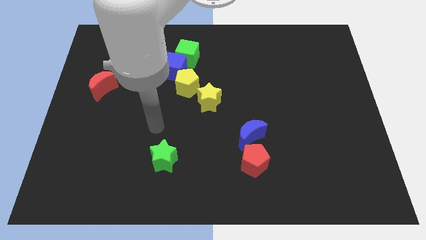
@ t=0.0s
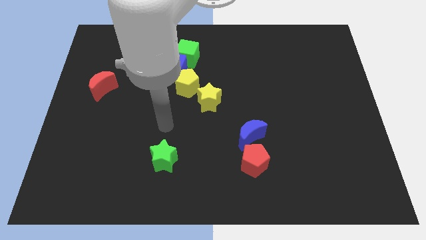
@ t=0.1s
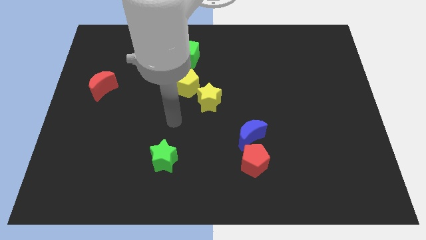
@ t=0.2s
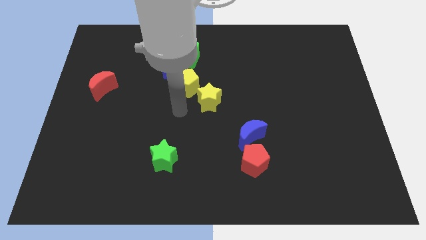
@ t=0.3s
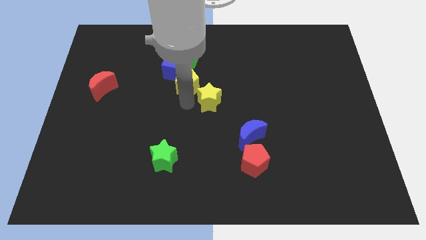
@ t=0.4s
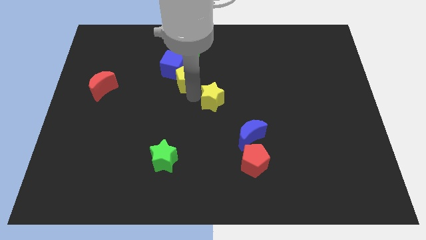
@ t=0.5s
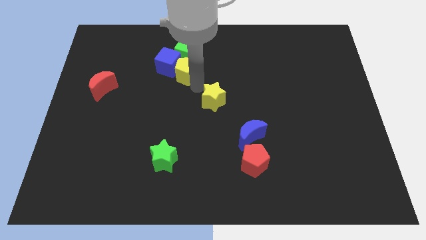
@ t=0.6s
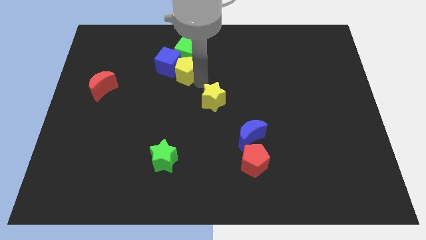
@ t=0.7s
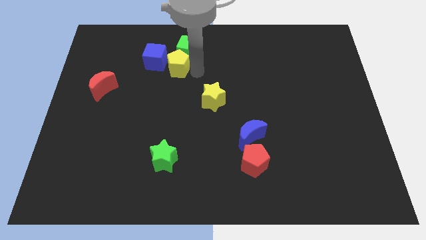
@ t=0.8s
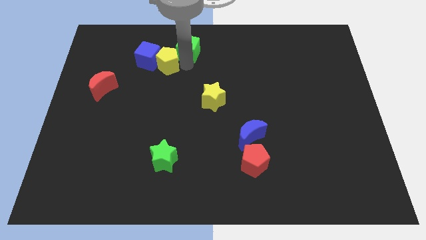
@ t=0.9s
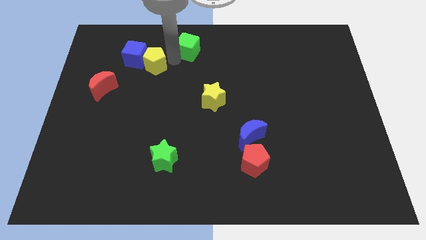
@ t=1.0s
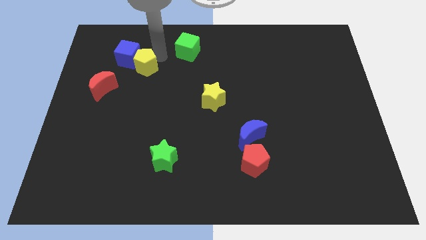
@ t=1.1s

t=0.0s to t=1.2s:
separate the blue cube from the green cube and yellow pentagon

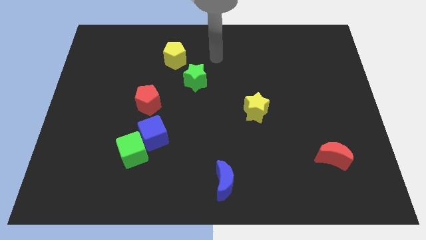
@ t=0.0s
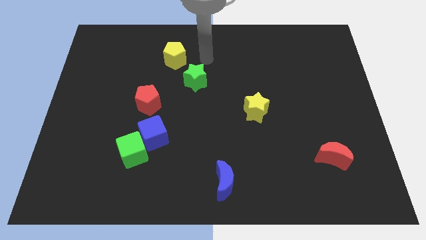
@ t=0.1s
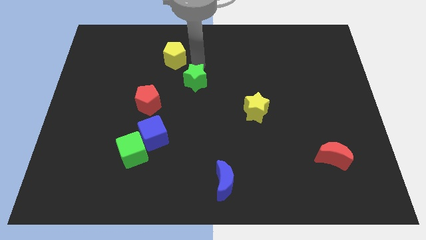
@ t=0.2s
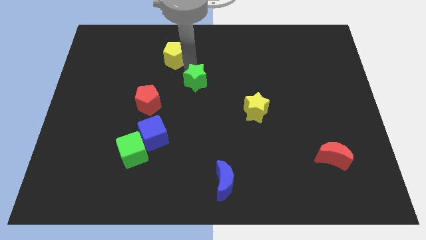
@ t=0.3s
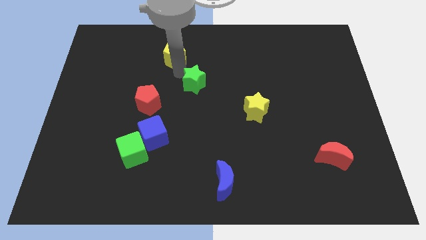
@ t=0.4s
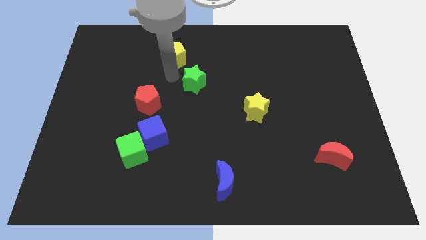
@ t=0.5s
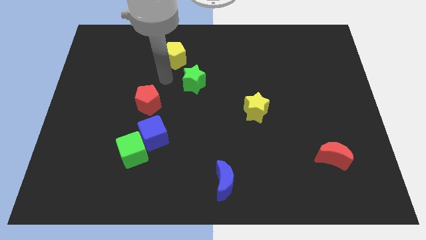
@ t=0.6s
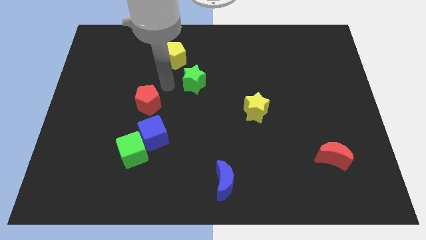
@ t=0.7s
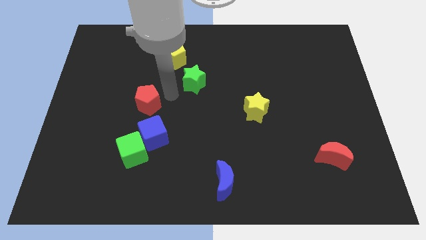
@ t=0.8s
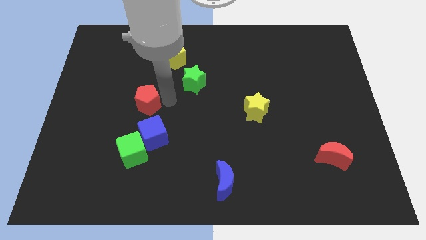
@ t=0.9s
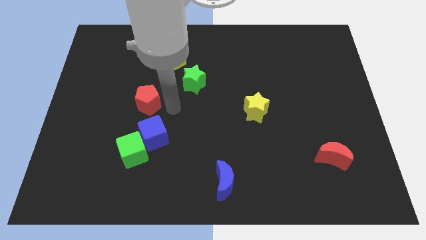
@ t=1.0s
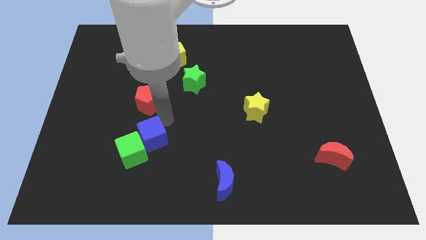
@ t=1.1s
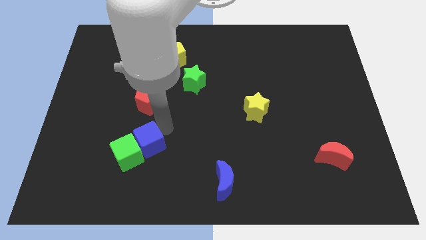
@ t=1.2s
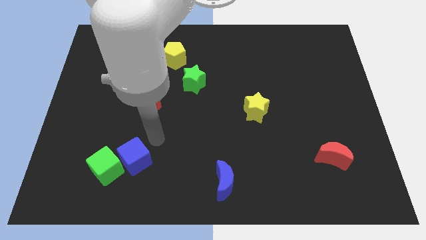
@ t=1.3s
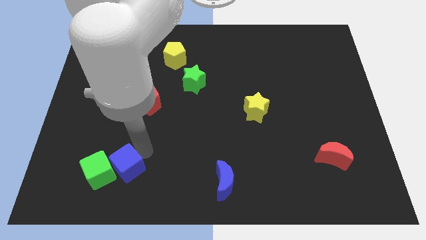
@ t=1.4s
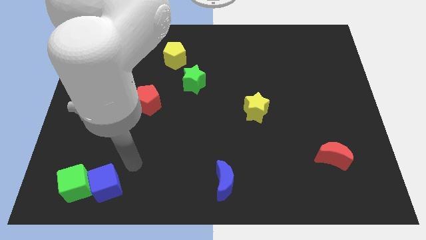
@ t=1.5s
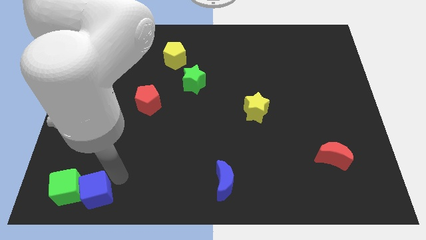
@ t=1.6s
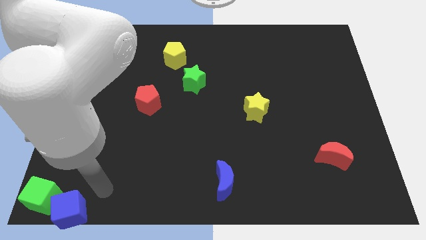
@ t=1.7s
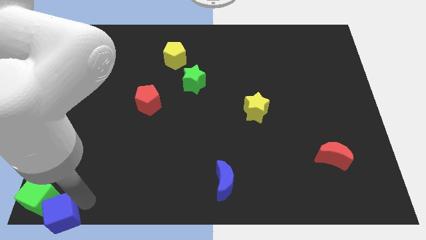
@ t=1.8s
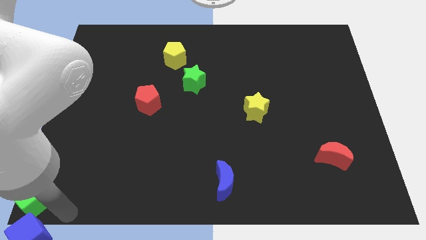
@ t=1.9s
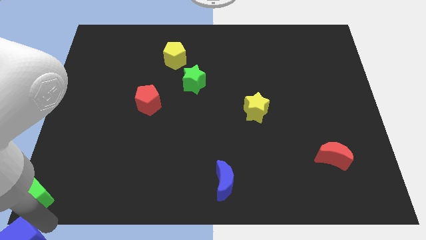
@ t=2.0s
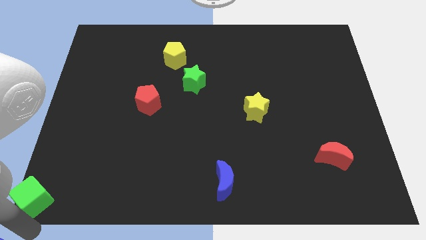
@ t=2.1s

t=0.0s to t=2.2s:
pull the green cube apart from the blue cube

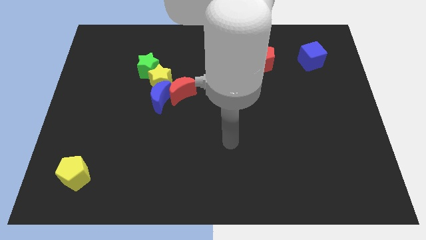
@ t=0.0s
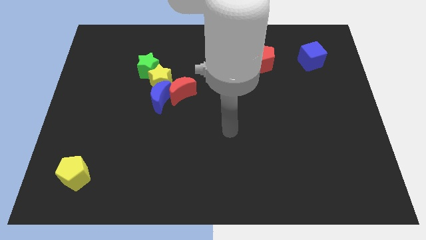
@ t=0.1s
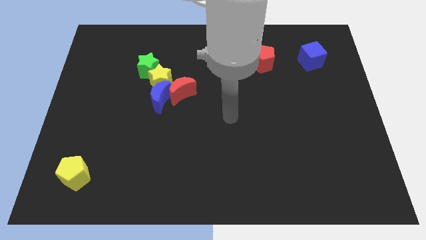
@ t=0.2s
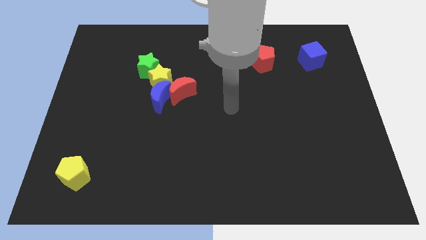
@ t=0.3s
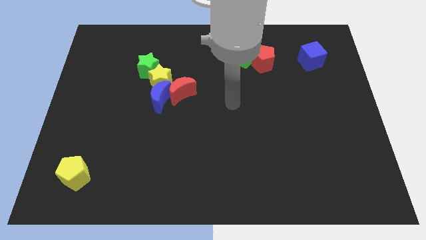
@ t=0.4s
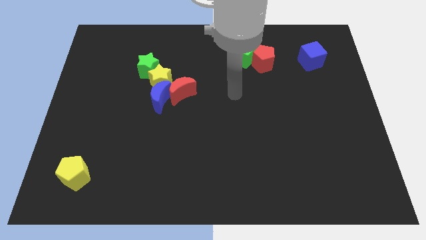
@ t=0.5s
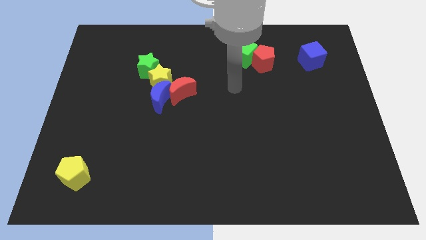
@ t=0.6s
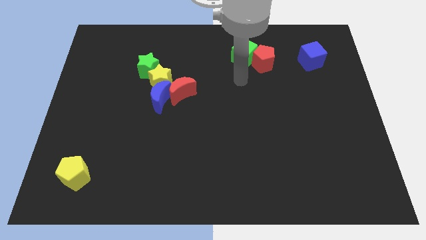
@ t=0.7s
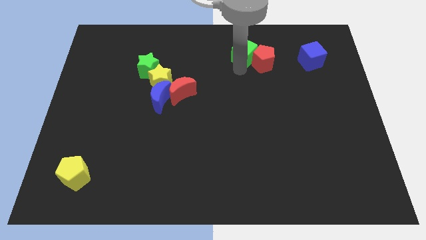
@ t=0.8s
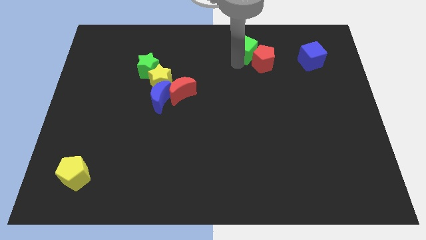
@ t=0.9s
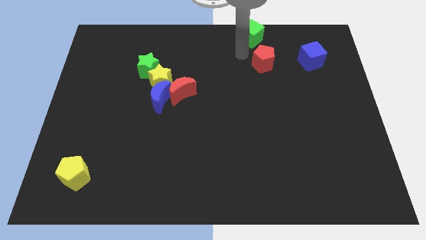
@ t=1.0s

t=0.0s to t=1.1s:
separate the red pentagon from the green cube

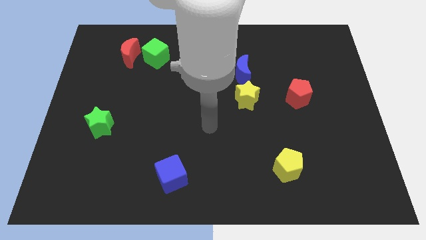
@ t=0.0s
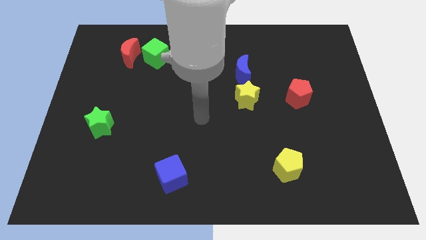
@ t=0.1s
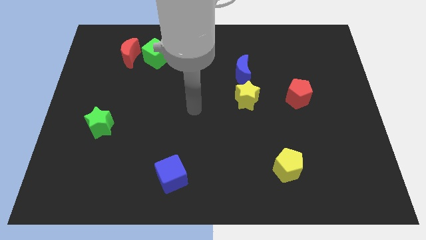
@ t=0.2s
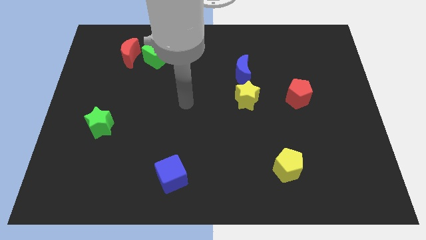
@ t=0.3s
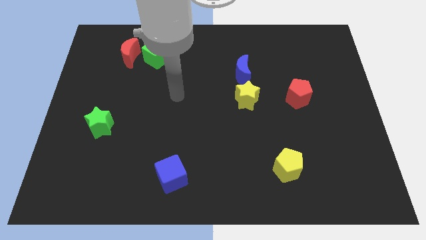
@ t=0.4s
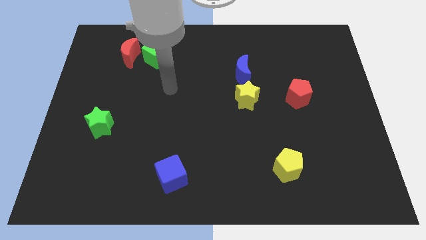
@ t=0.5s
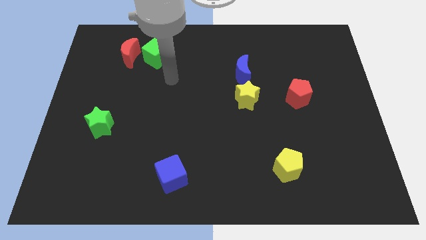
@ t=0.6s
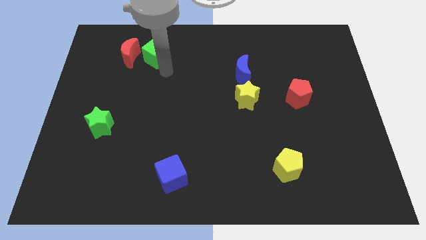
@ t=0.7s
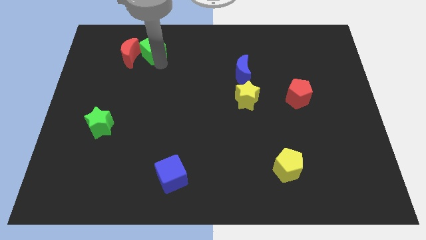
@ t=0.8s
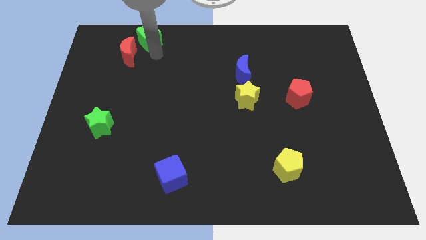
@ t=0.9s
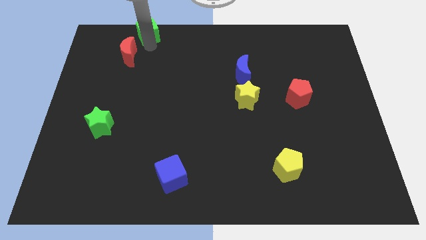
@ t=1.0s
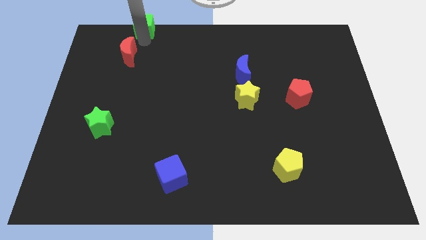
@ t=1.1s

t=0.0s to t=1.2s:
separate the red moon from the green cube

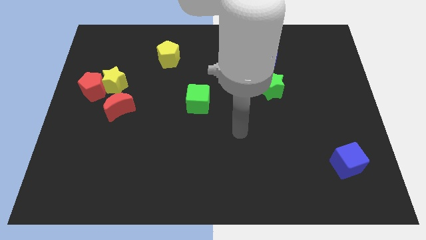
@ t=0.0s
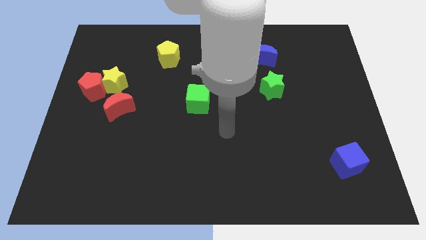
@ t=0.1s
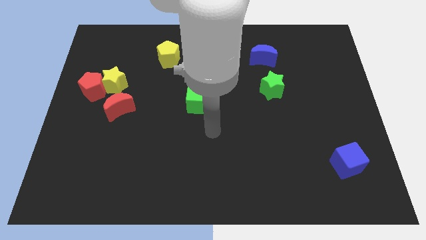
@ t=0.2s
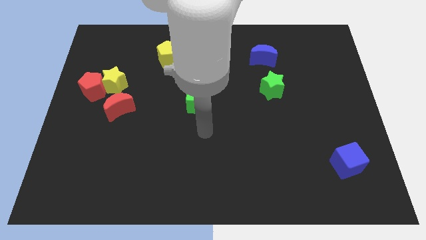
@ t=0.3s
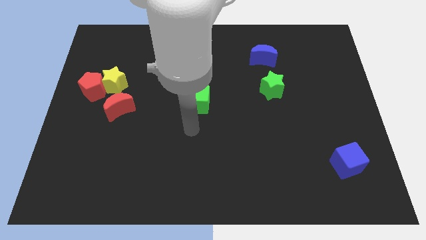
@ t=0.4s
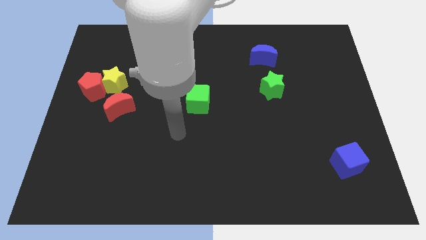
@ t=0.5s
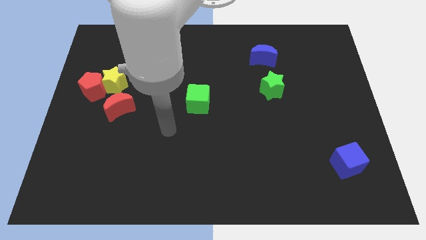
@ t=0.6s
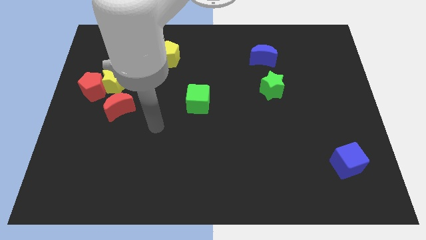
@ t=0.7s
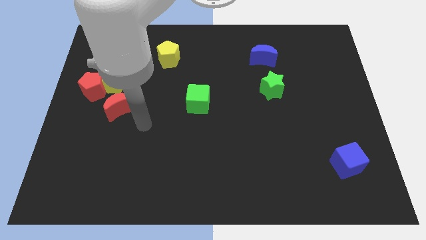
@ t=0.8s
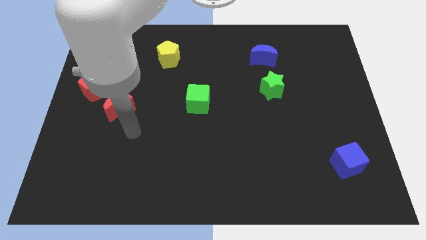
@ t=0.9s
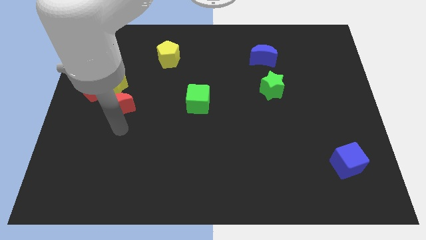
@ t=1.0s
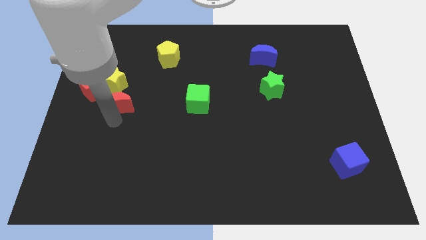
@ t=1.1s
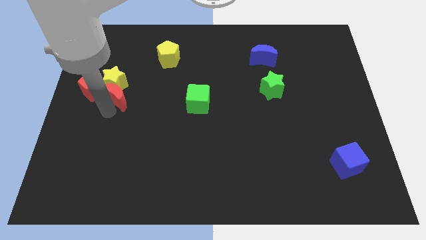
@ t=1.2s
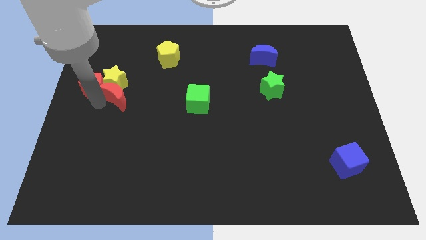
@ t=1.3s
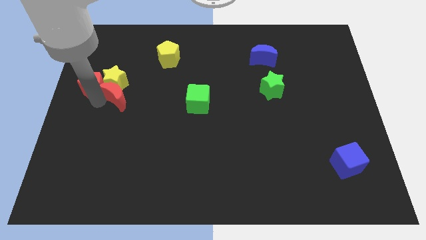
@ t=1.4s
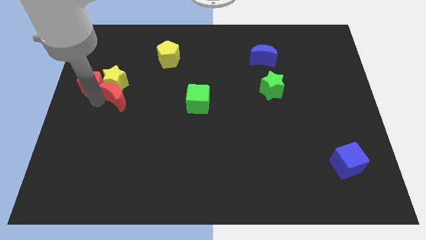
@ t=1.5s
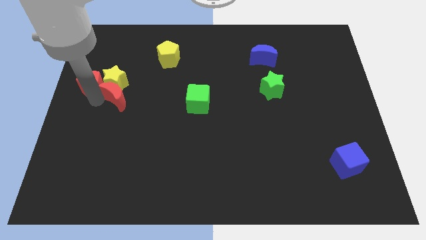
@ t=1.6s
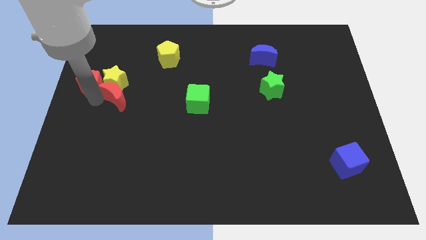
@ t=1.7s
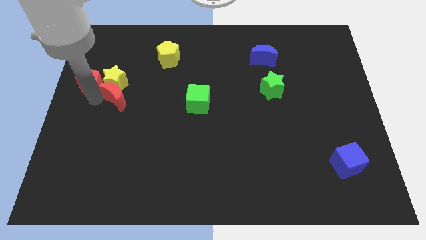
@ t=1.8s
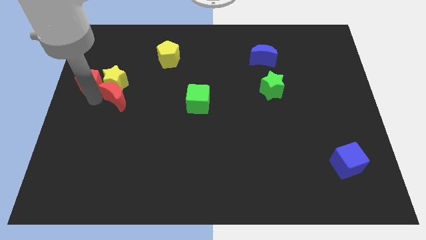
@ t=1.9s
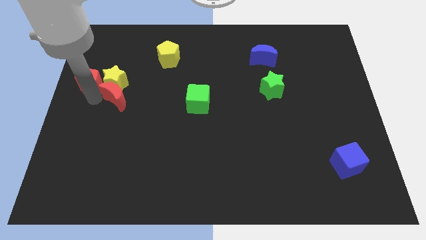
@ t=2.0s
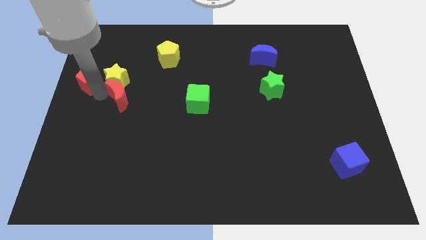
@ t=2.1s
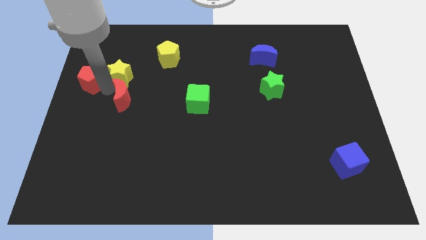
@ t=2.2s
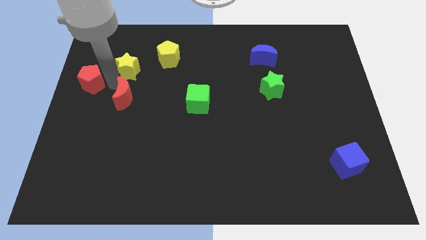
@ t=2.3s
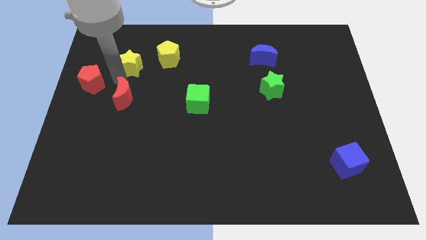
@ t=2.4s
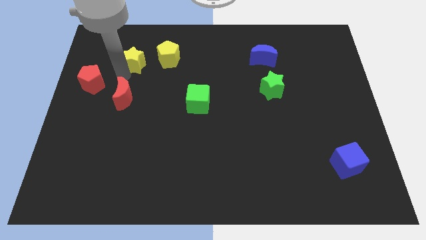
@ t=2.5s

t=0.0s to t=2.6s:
pull the yellow star apart from the red pentagon and red moon

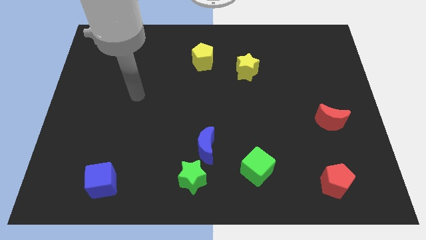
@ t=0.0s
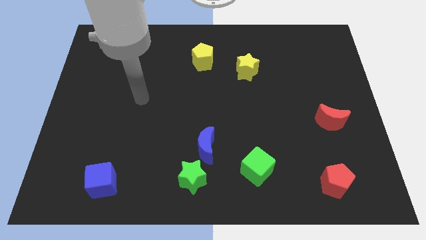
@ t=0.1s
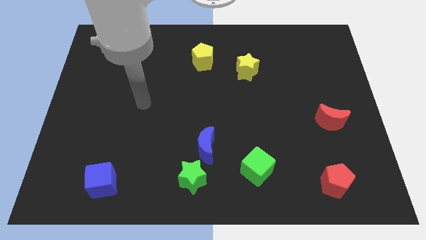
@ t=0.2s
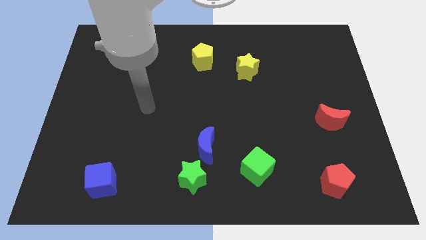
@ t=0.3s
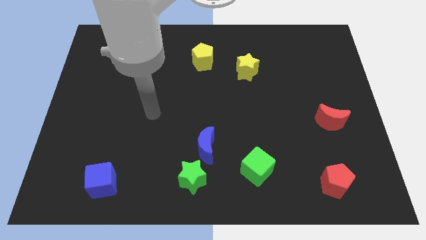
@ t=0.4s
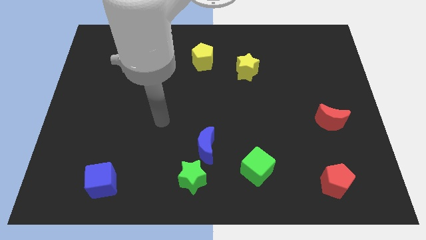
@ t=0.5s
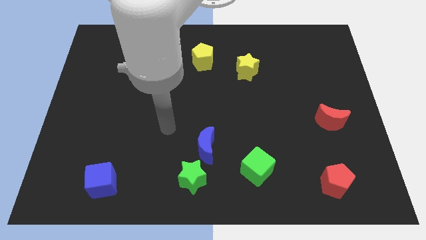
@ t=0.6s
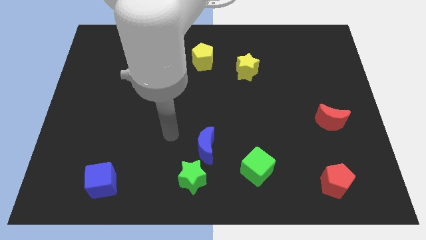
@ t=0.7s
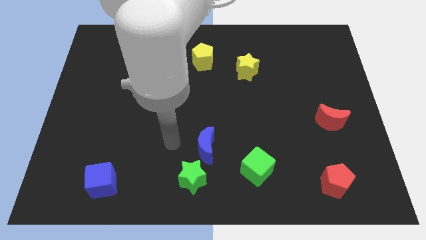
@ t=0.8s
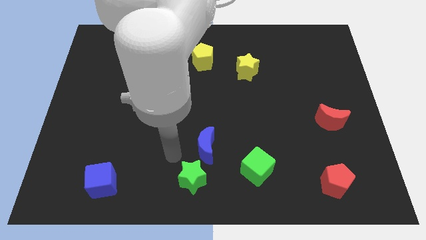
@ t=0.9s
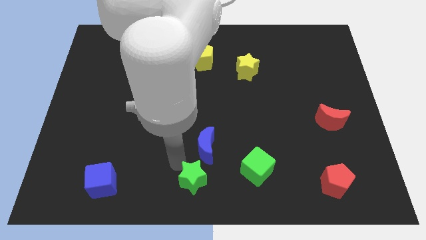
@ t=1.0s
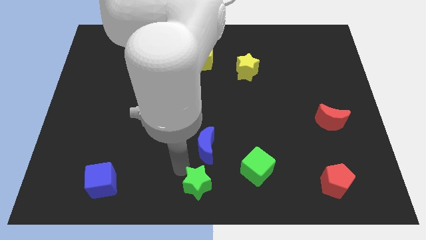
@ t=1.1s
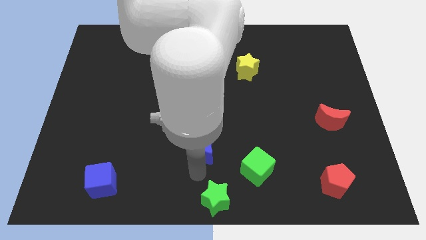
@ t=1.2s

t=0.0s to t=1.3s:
move the blue moon away from the green star
